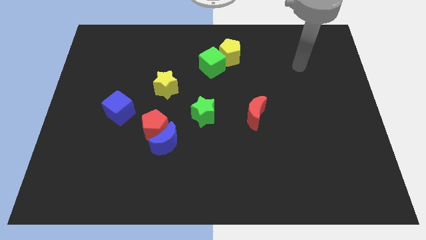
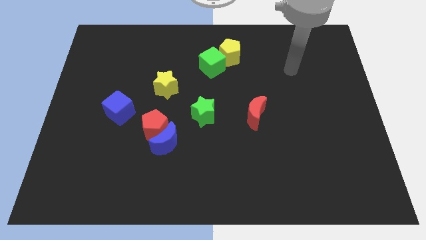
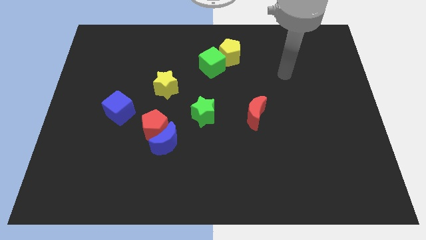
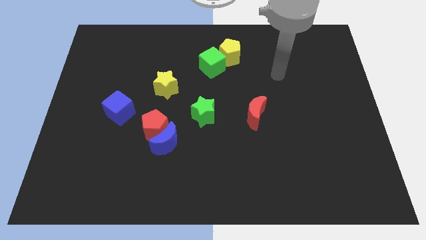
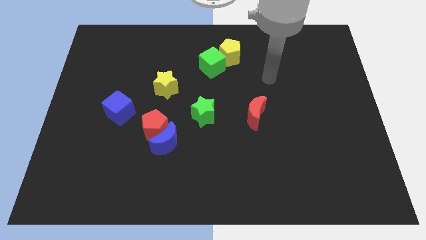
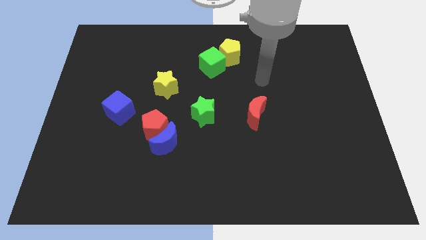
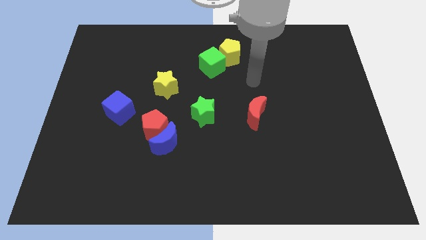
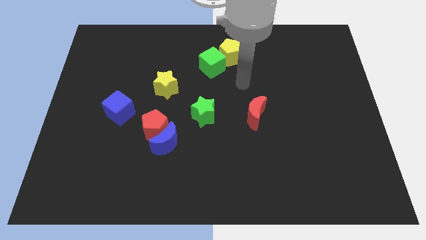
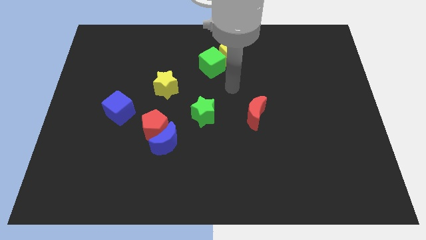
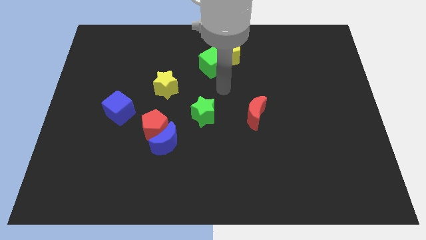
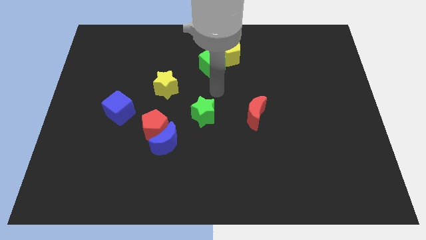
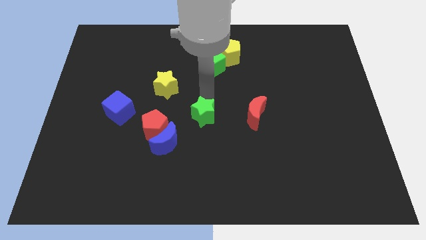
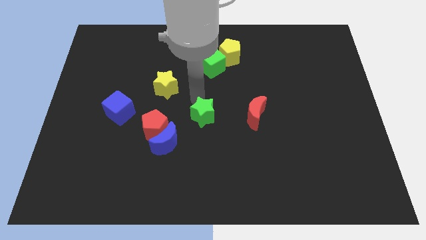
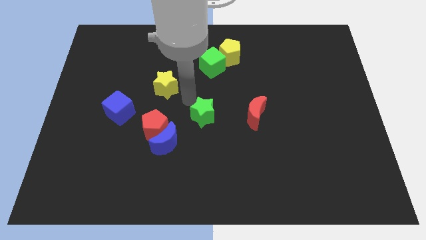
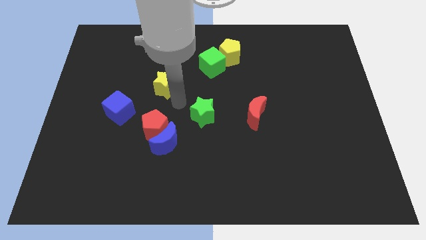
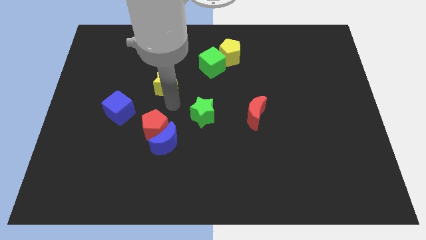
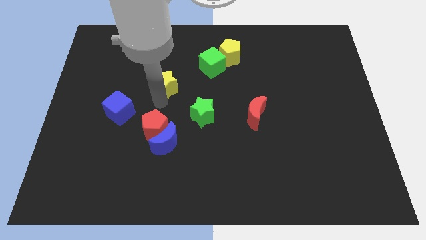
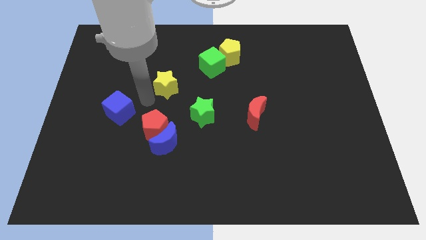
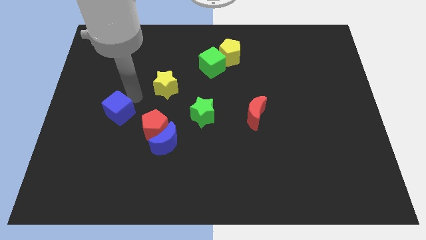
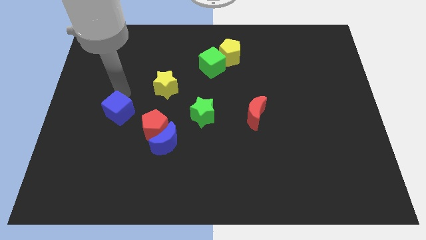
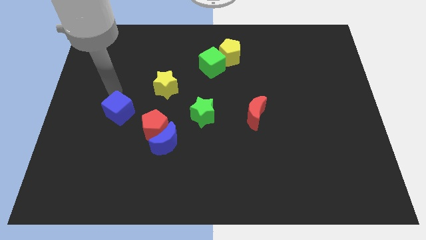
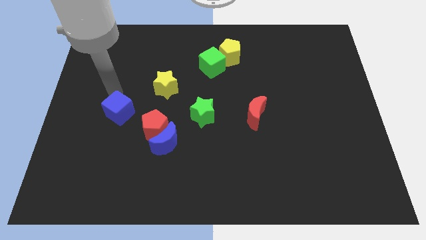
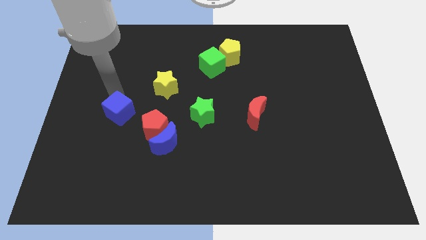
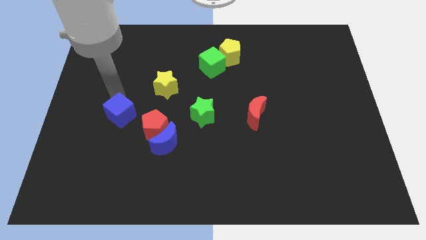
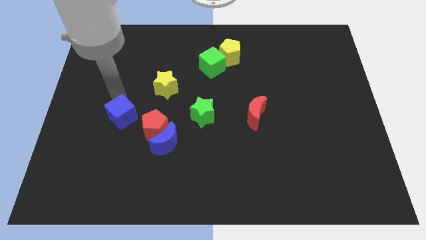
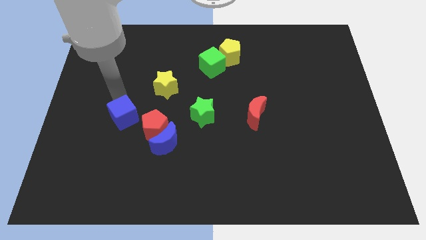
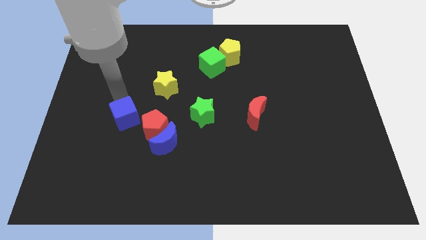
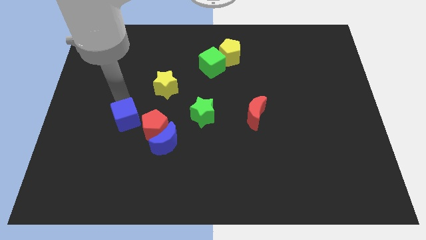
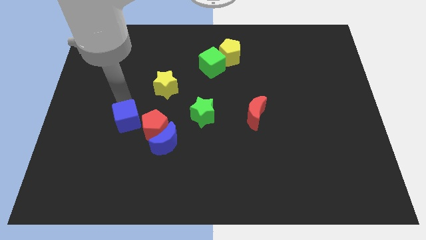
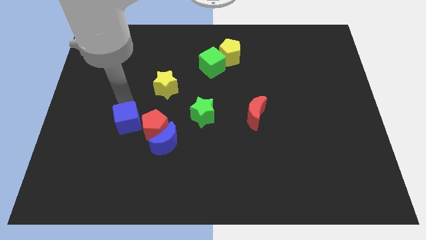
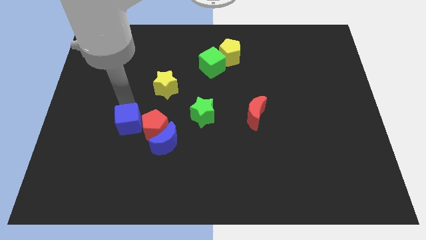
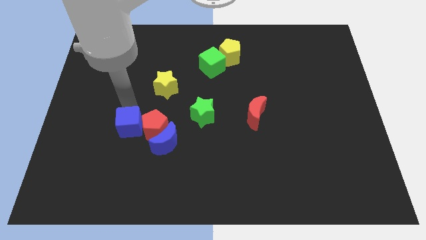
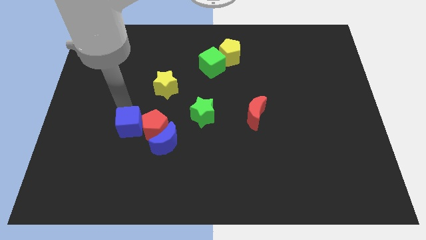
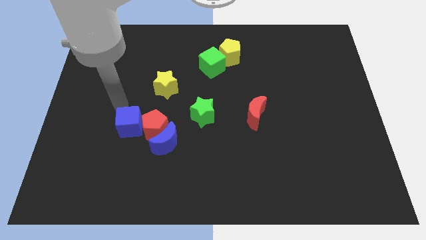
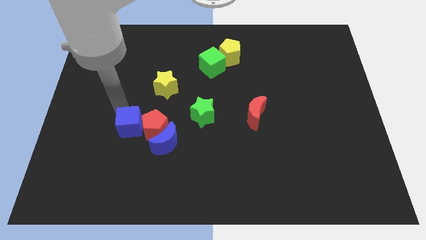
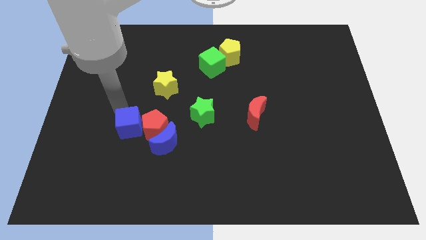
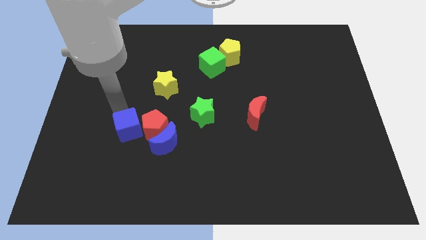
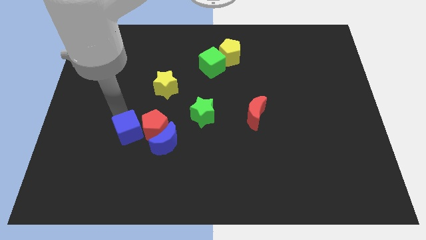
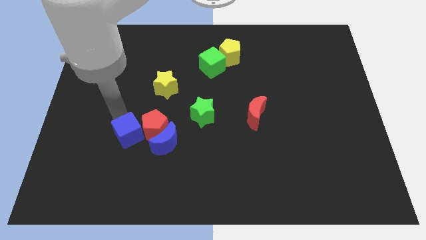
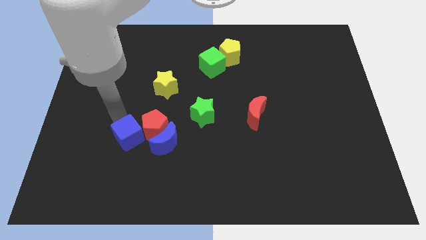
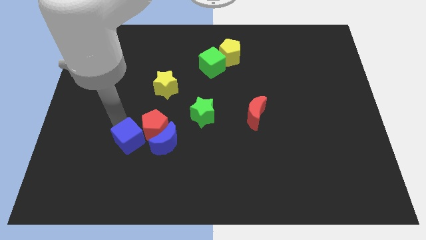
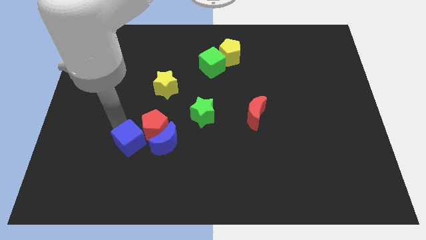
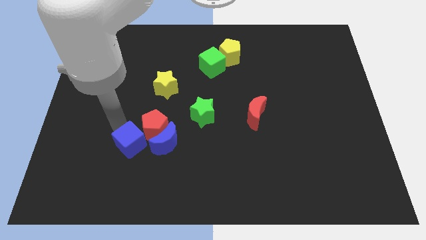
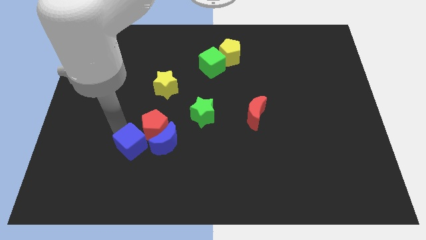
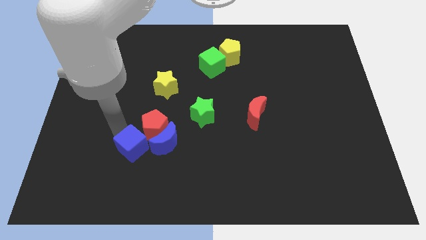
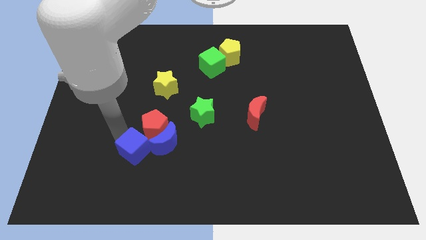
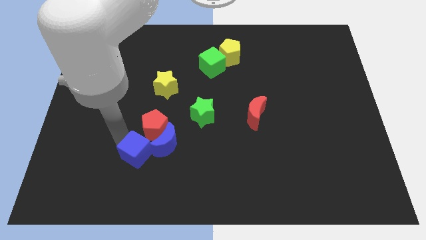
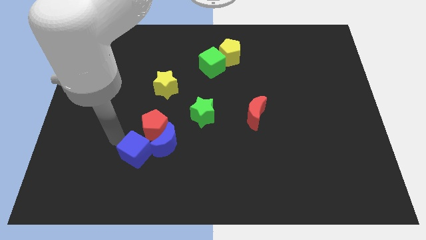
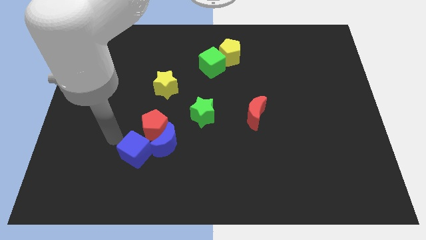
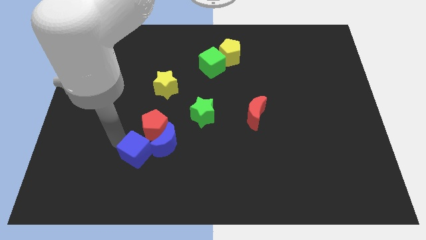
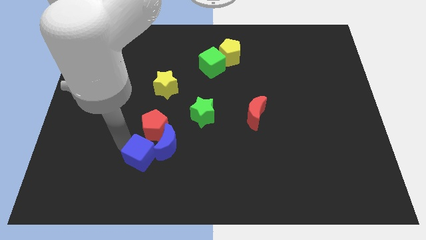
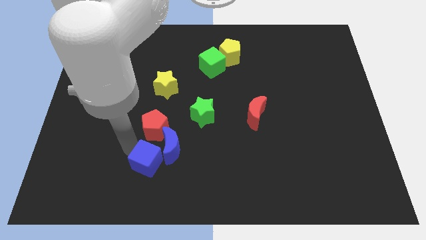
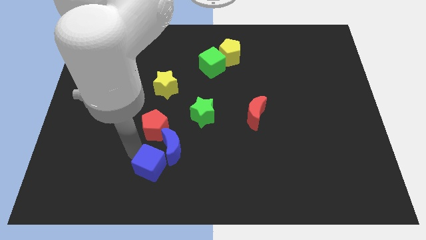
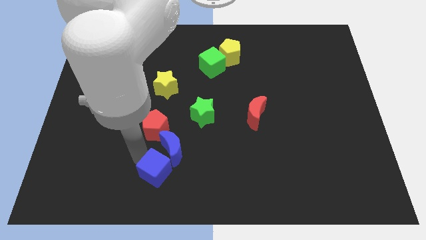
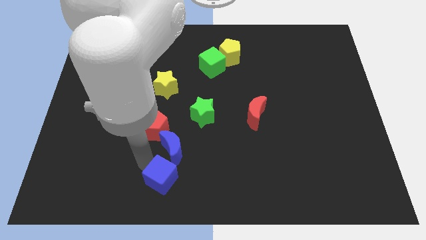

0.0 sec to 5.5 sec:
slide the blue cube to the bottom
